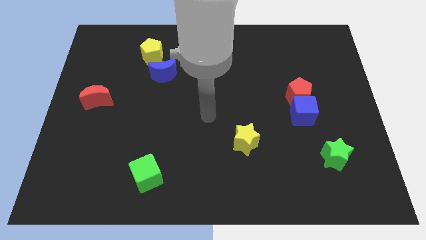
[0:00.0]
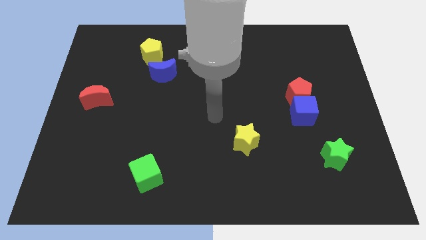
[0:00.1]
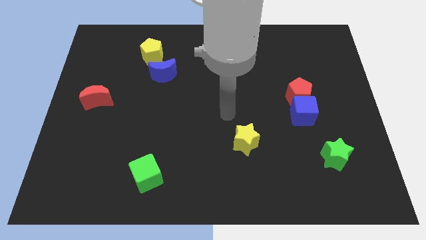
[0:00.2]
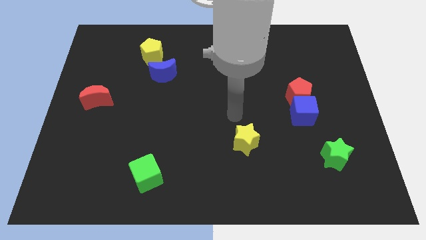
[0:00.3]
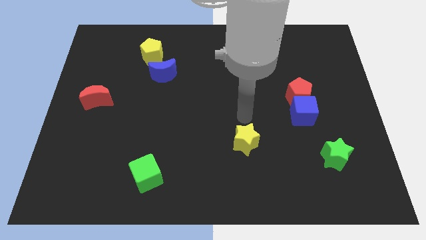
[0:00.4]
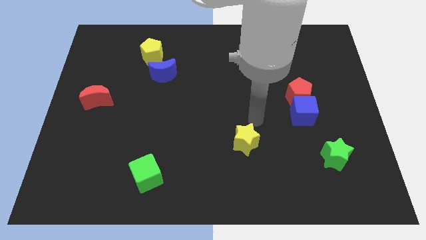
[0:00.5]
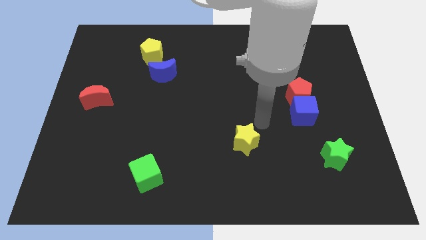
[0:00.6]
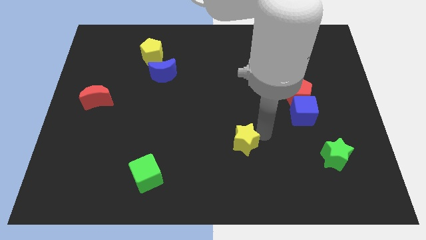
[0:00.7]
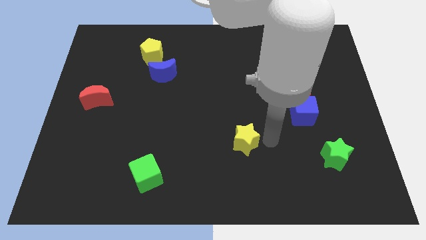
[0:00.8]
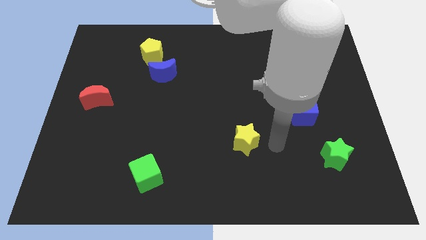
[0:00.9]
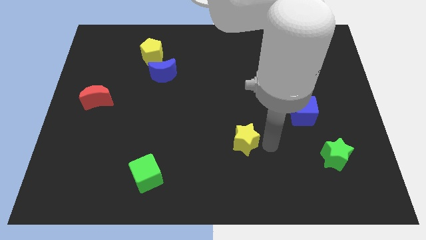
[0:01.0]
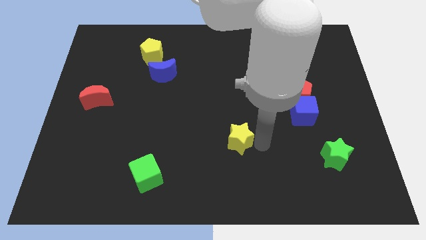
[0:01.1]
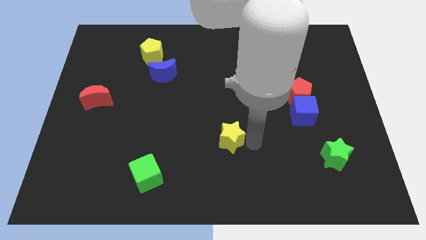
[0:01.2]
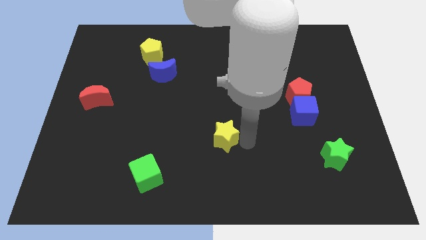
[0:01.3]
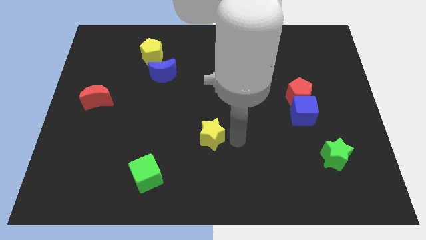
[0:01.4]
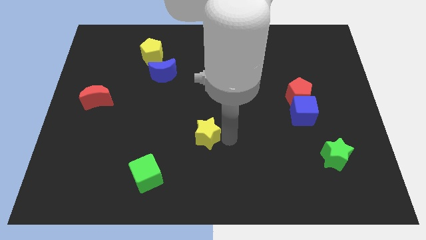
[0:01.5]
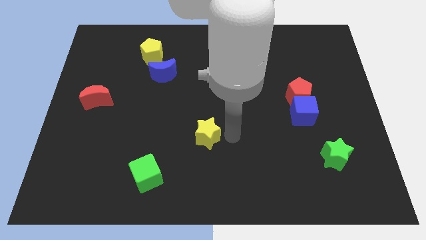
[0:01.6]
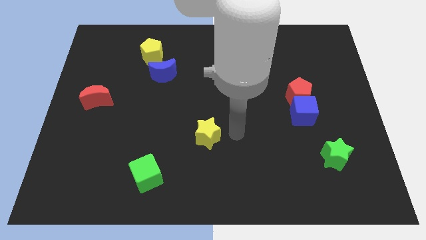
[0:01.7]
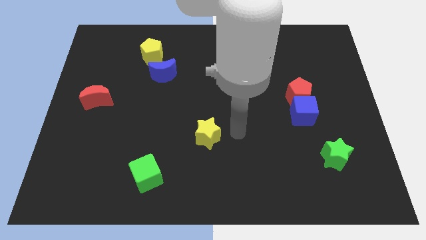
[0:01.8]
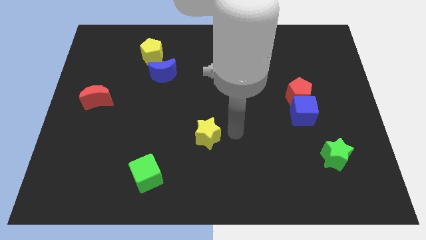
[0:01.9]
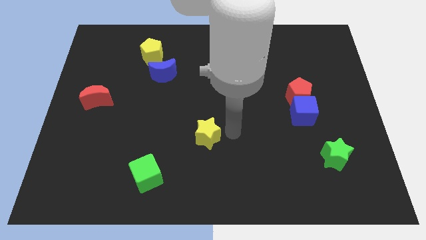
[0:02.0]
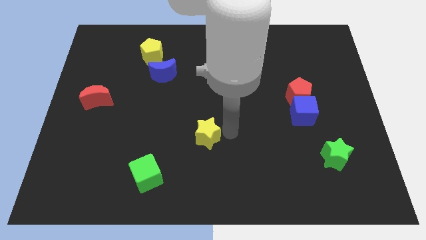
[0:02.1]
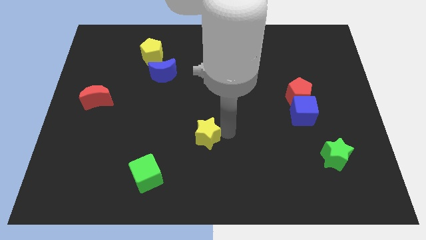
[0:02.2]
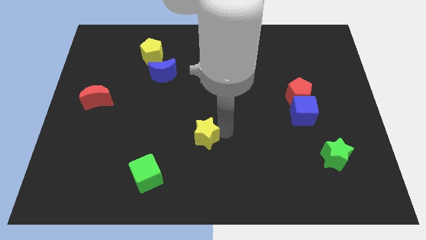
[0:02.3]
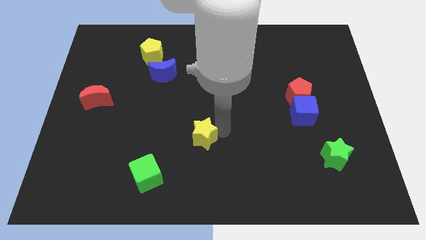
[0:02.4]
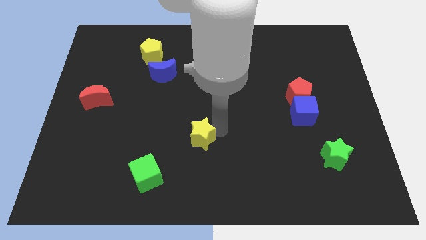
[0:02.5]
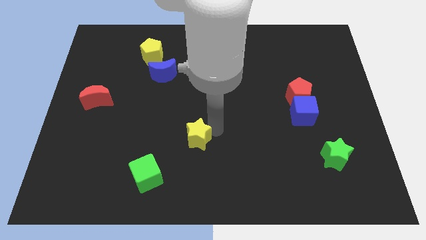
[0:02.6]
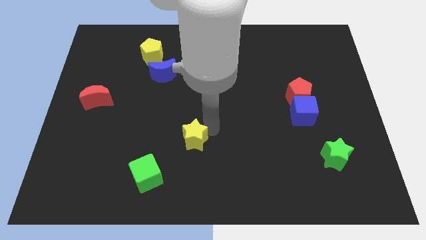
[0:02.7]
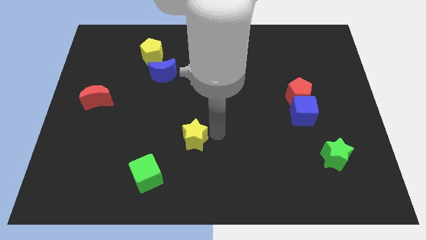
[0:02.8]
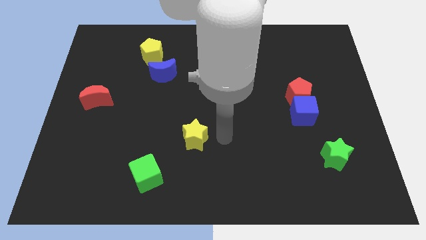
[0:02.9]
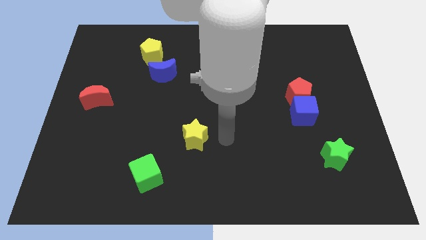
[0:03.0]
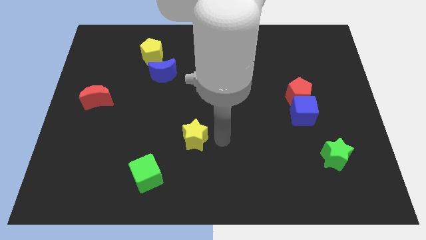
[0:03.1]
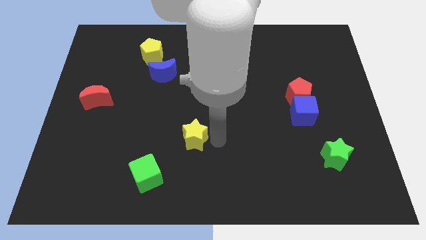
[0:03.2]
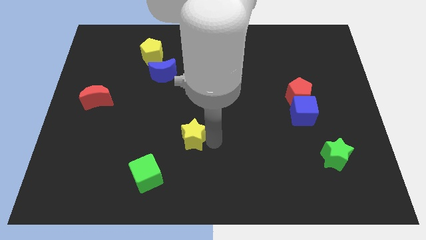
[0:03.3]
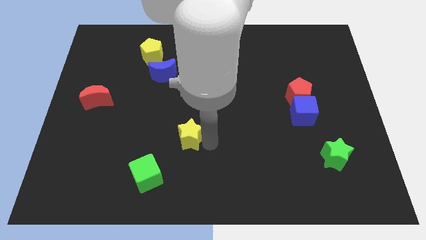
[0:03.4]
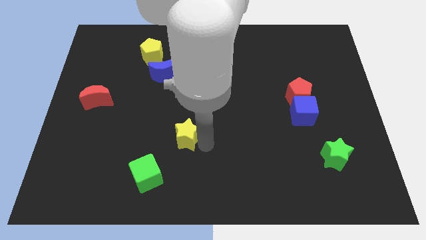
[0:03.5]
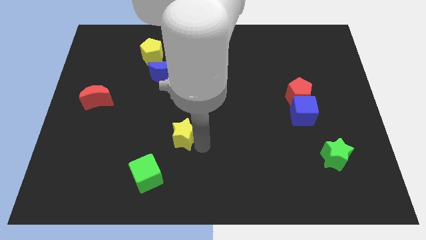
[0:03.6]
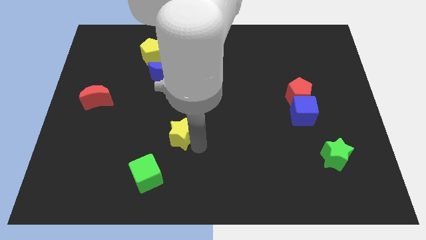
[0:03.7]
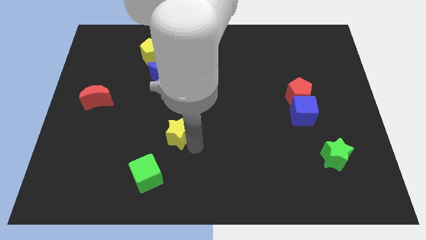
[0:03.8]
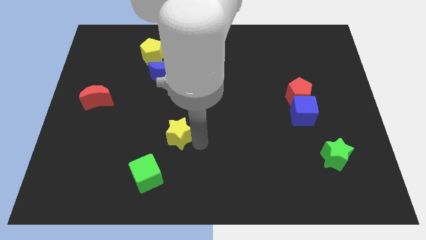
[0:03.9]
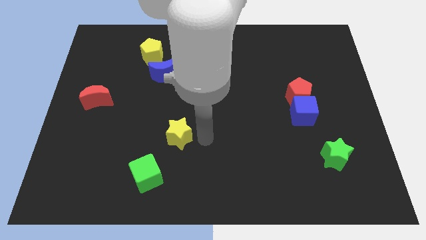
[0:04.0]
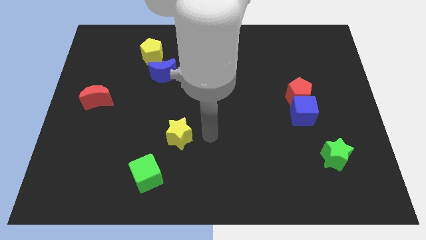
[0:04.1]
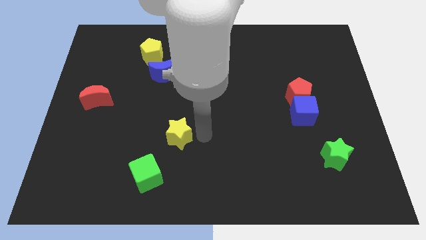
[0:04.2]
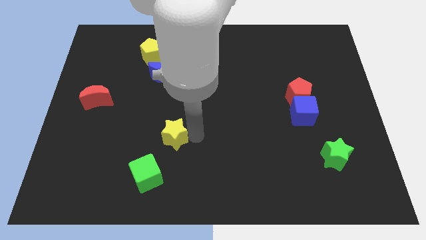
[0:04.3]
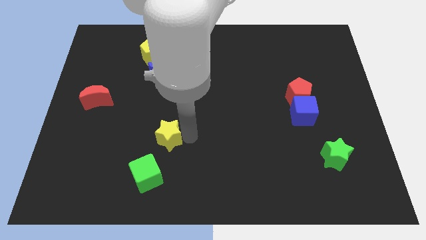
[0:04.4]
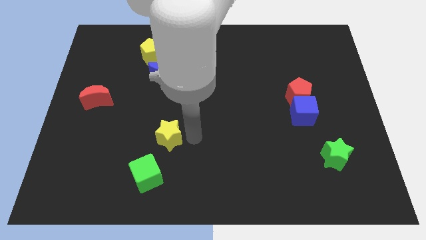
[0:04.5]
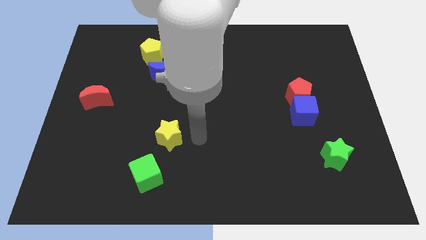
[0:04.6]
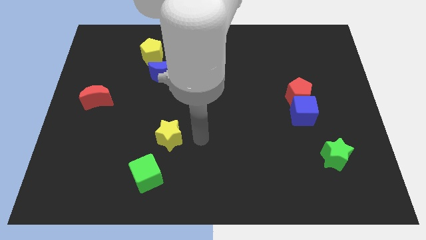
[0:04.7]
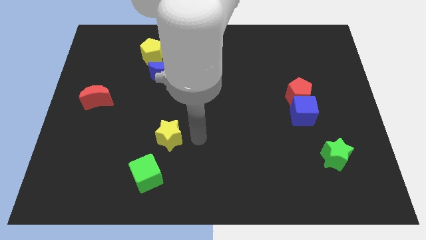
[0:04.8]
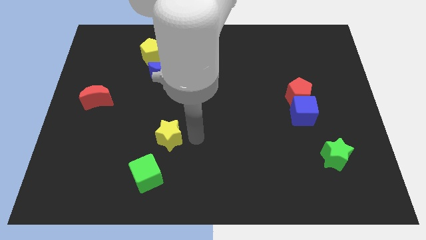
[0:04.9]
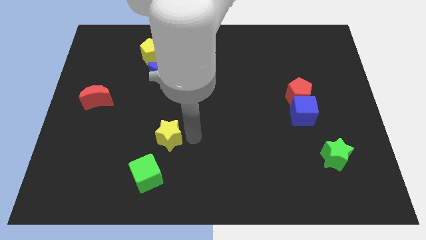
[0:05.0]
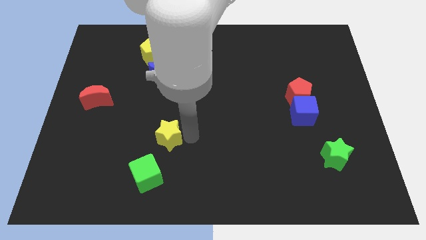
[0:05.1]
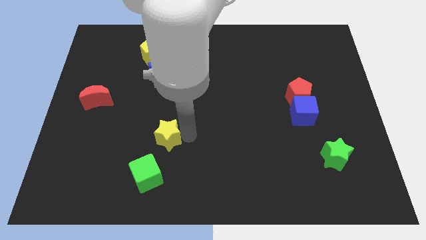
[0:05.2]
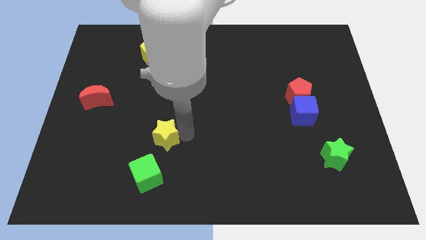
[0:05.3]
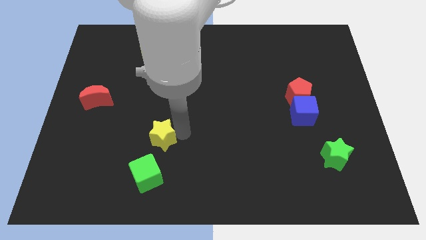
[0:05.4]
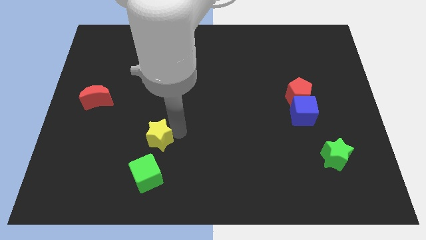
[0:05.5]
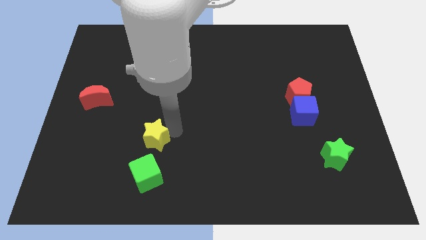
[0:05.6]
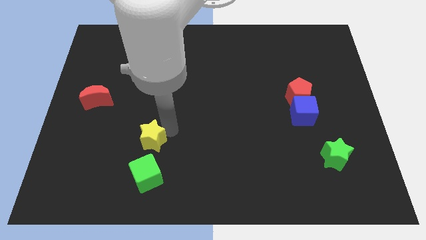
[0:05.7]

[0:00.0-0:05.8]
move the yellow star left

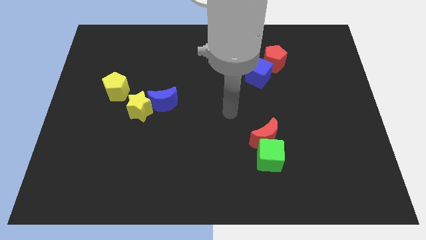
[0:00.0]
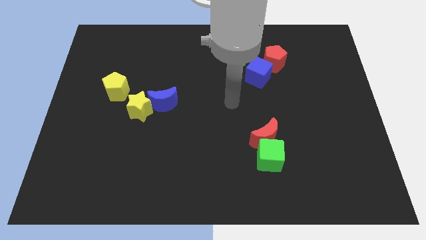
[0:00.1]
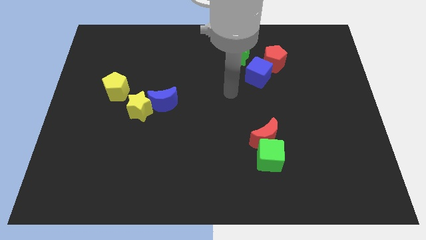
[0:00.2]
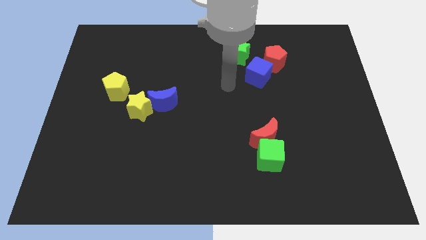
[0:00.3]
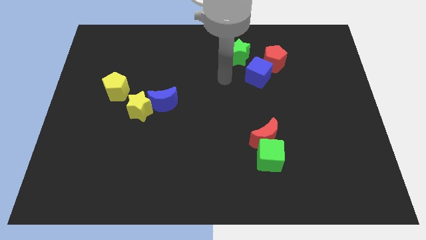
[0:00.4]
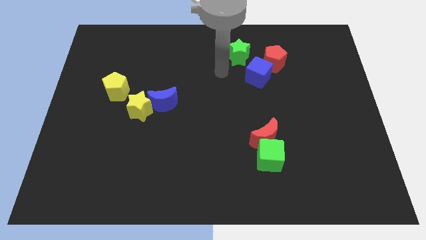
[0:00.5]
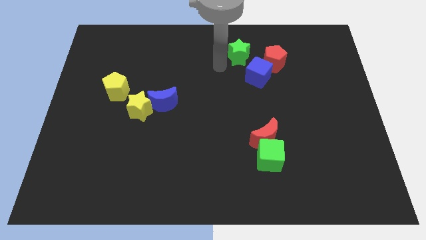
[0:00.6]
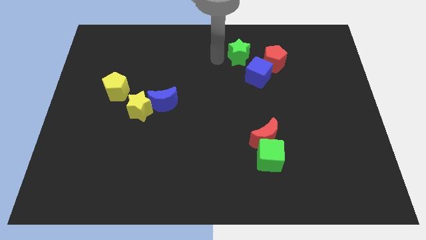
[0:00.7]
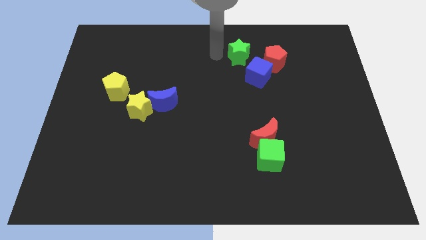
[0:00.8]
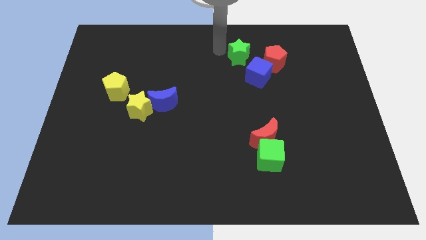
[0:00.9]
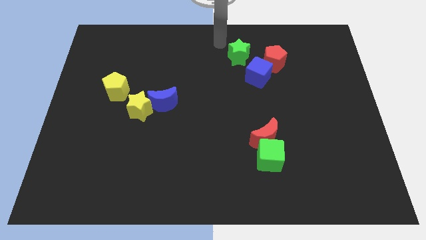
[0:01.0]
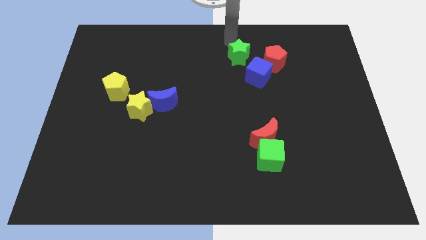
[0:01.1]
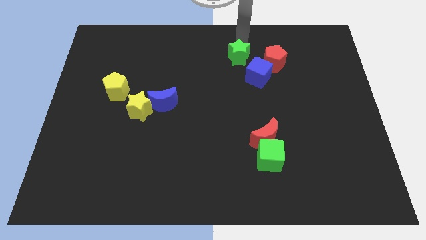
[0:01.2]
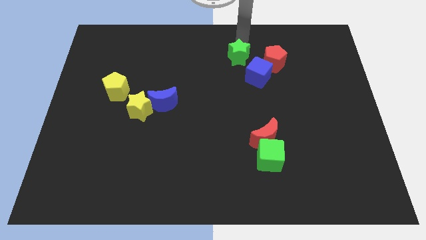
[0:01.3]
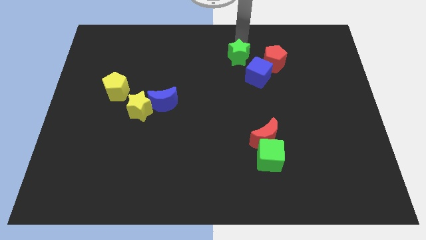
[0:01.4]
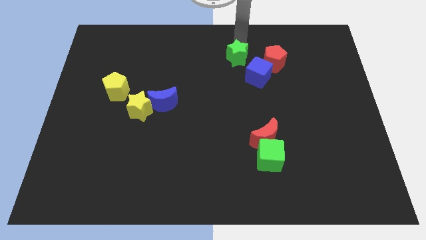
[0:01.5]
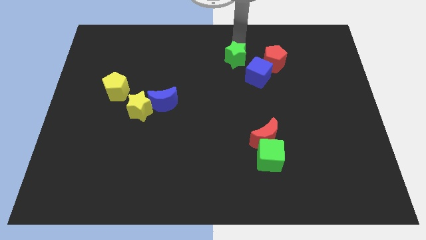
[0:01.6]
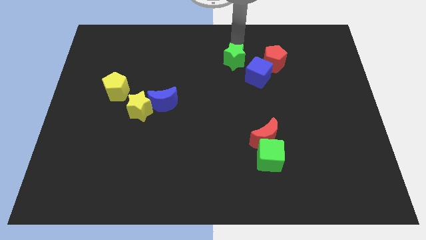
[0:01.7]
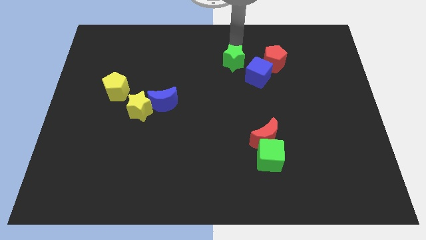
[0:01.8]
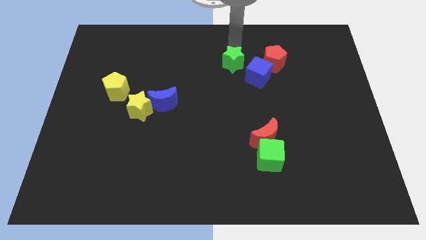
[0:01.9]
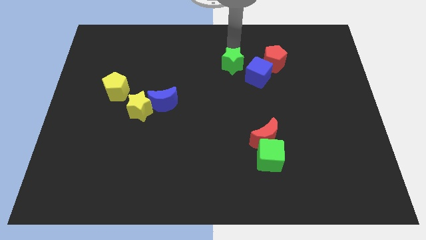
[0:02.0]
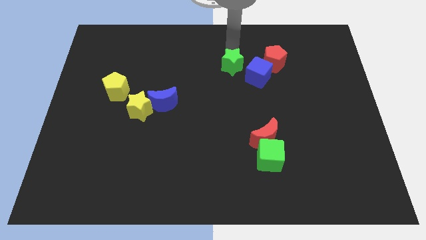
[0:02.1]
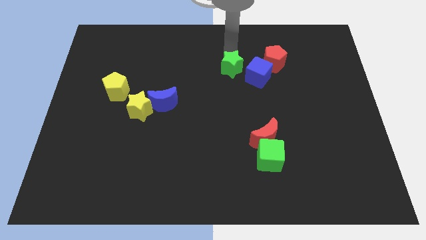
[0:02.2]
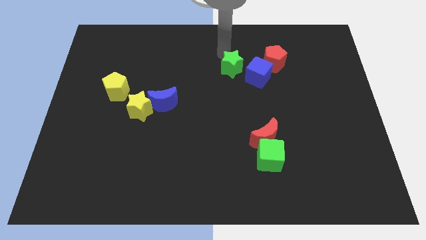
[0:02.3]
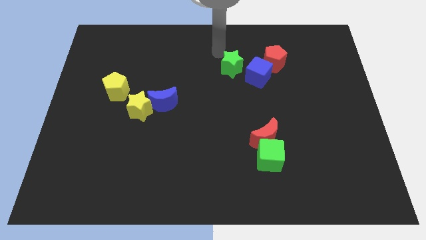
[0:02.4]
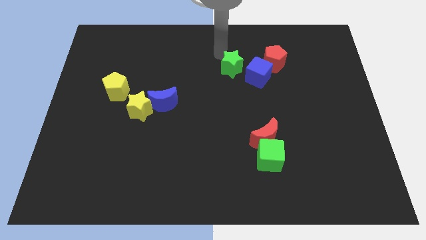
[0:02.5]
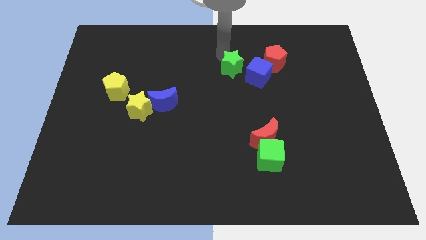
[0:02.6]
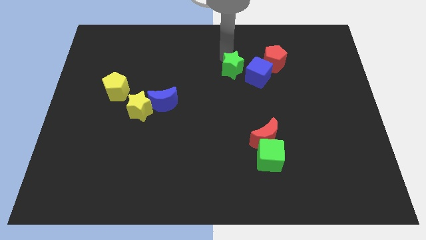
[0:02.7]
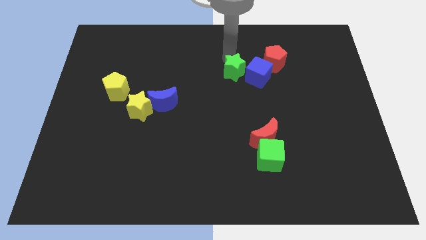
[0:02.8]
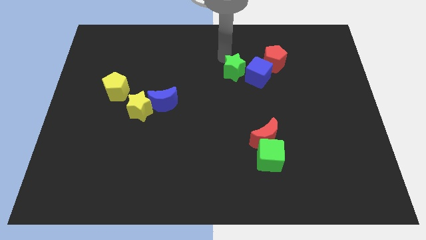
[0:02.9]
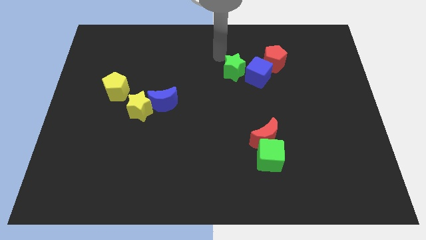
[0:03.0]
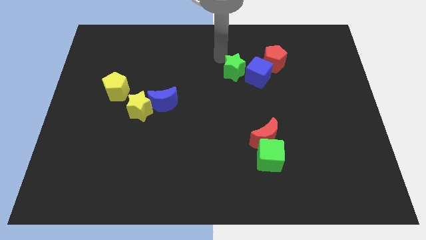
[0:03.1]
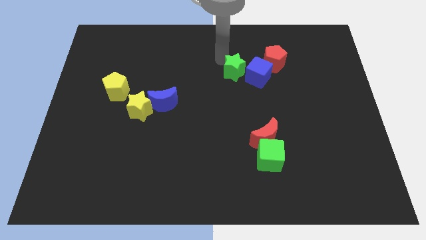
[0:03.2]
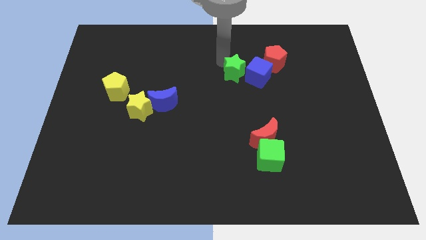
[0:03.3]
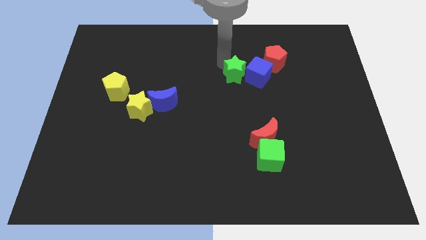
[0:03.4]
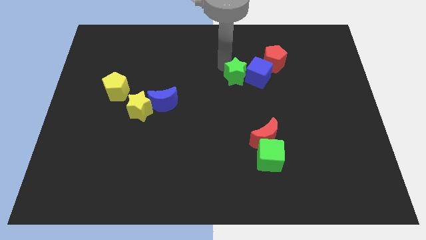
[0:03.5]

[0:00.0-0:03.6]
slide the green star somewhat down
